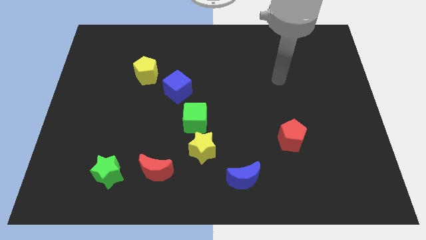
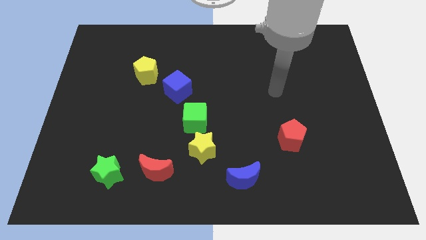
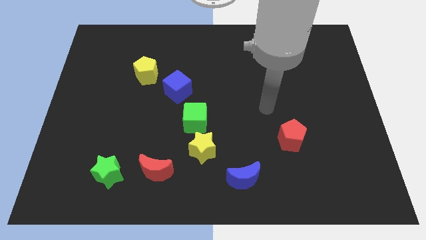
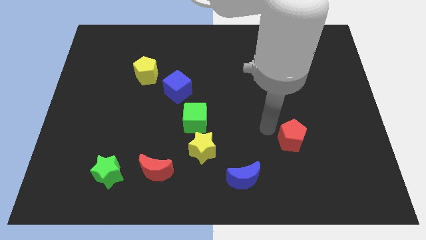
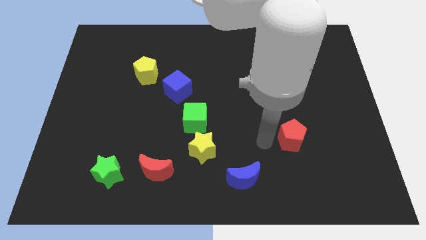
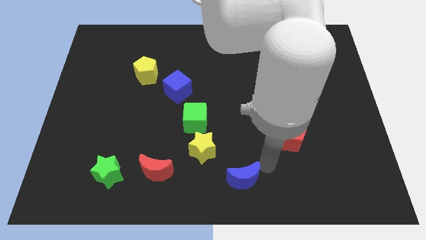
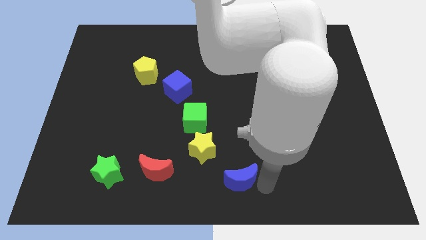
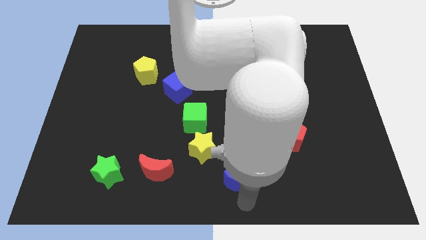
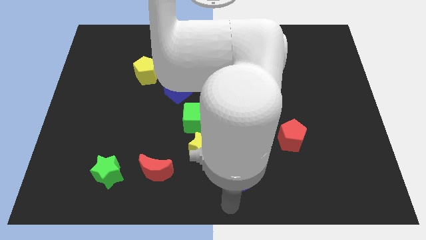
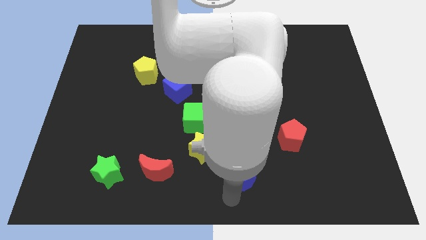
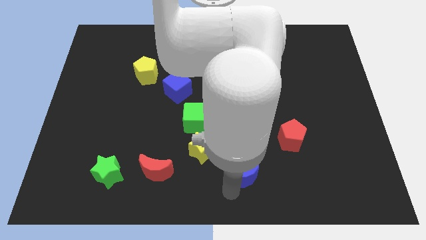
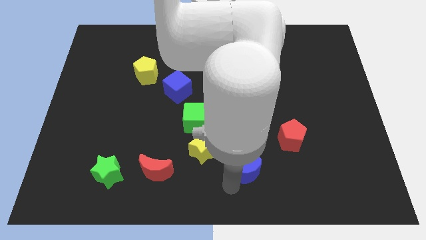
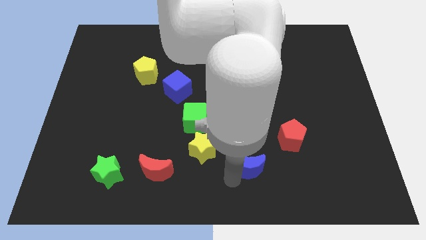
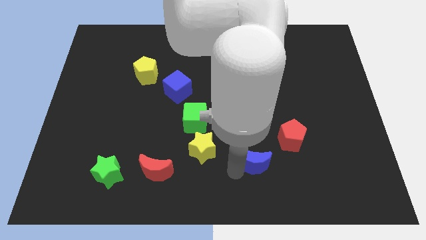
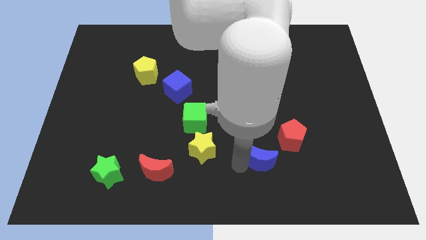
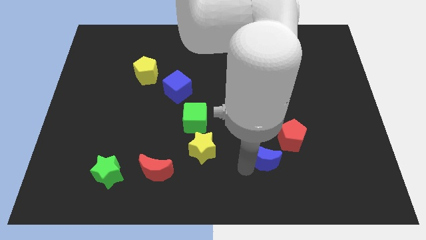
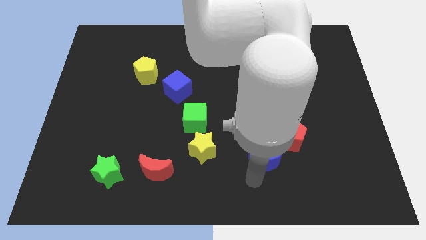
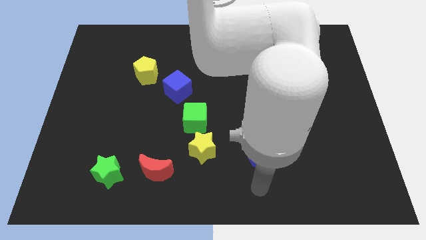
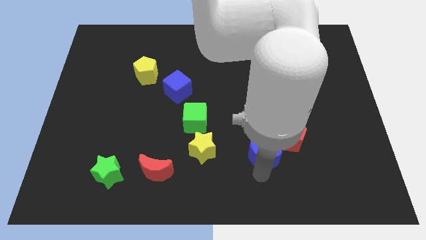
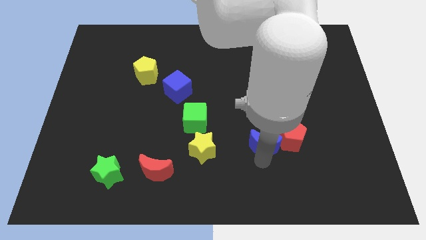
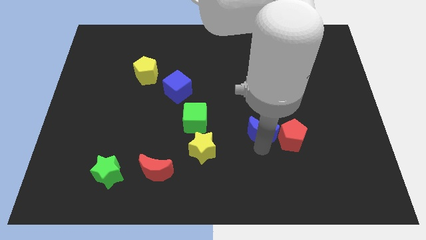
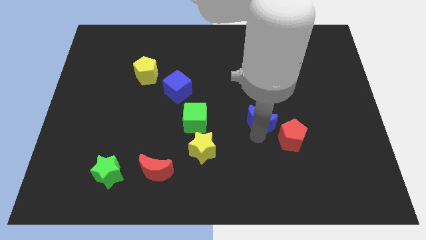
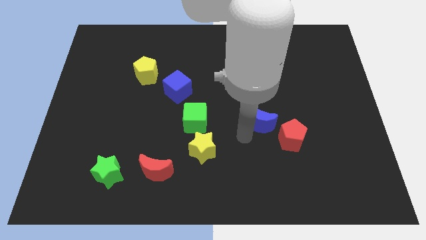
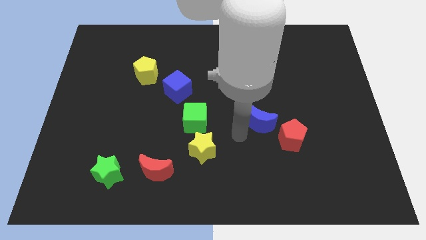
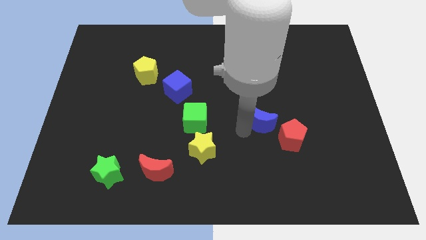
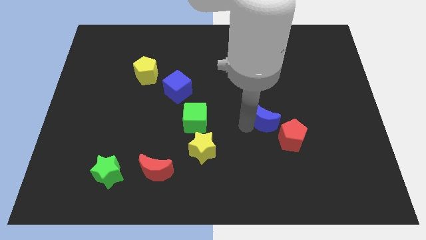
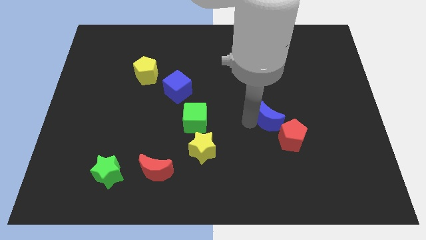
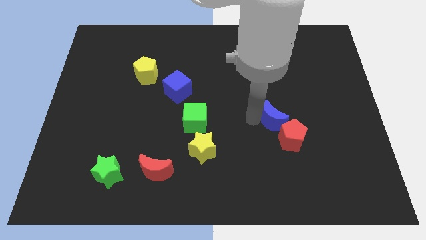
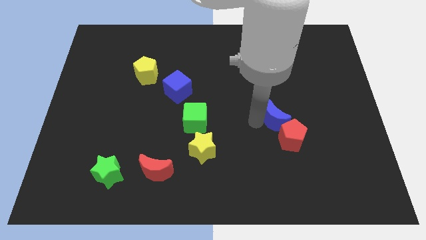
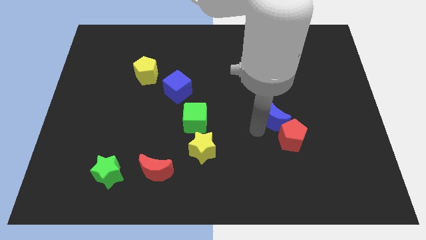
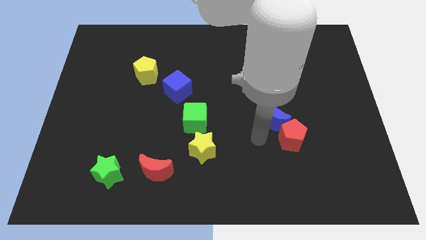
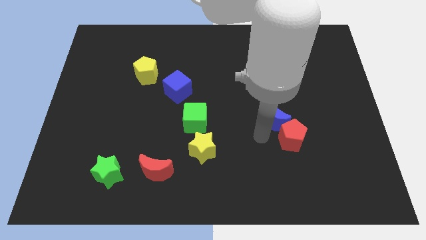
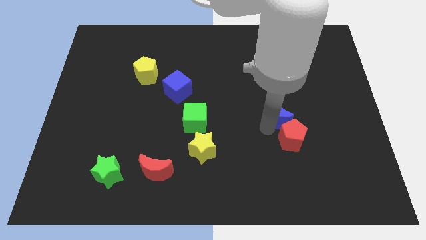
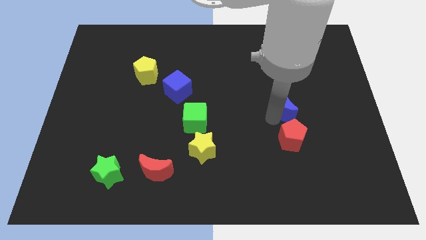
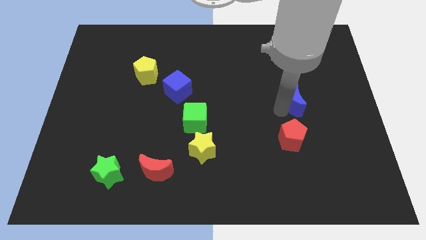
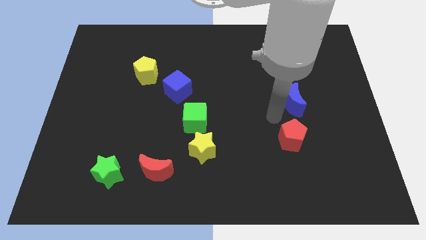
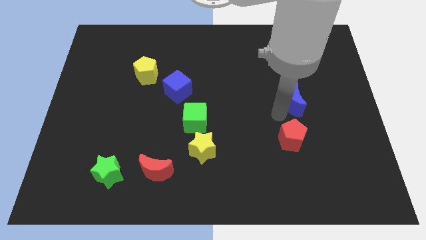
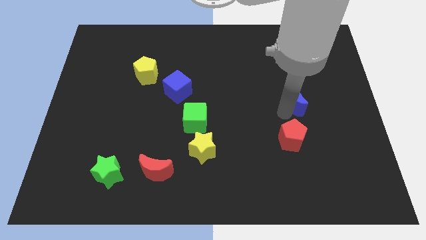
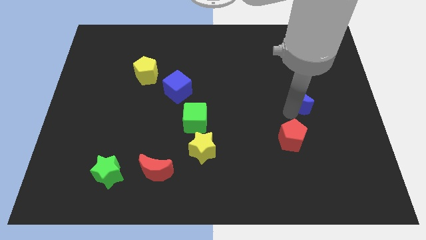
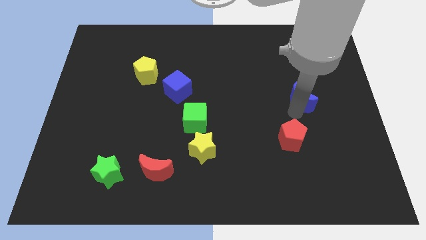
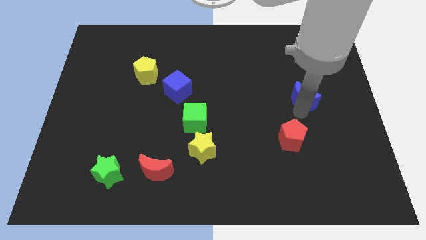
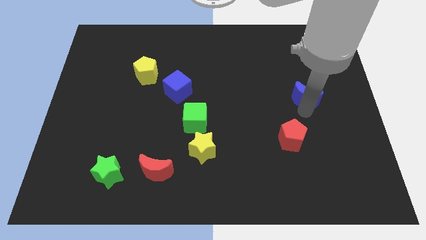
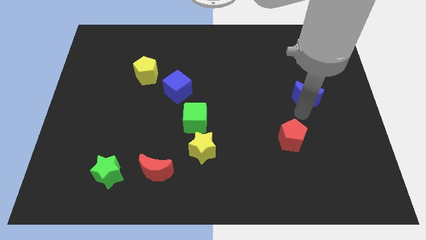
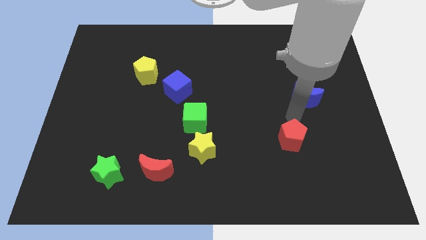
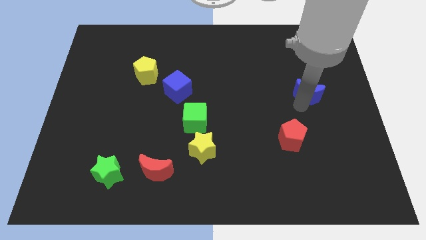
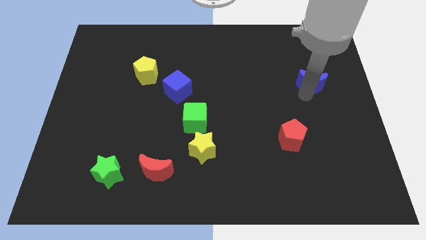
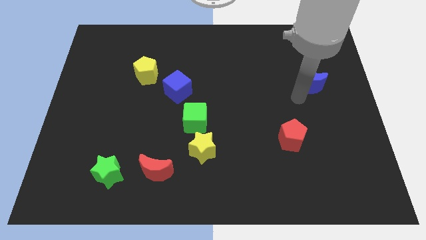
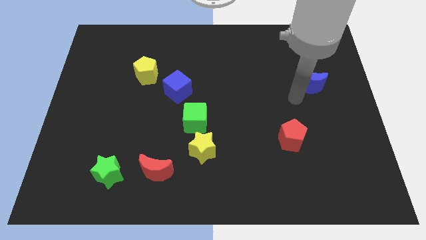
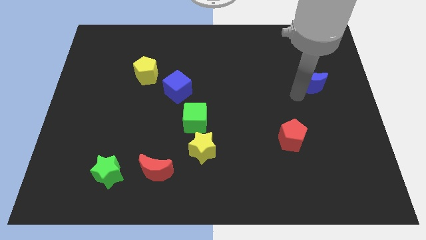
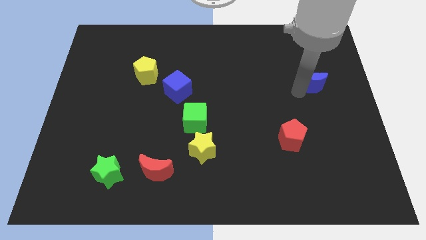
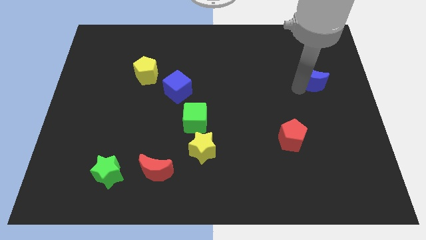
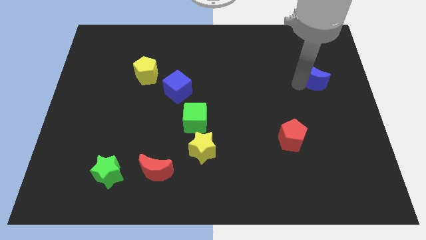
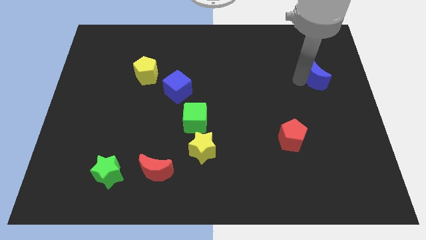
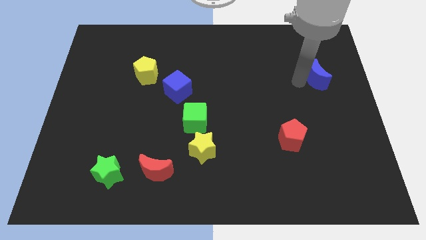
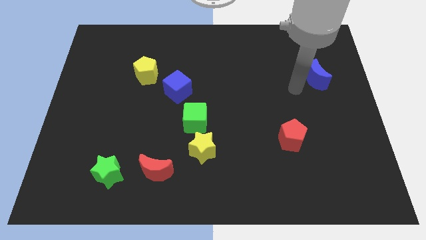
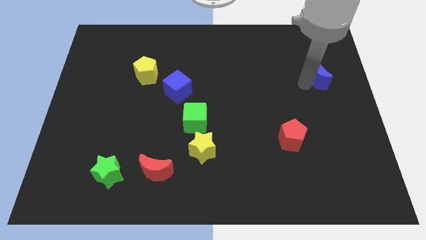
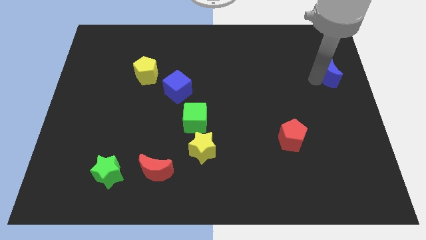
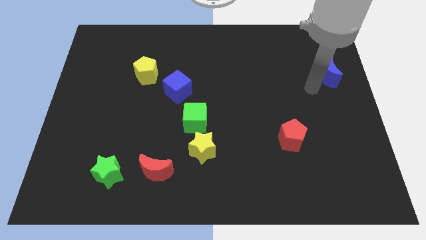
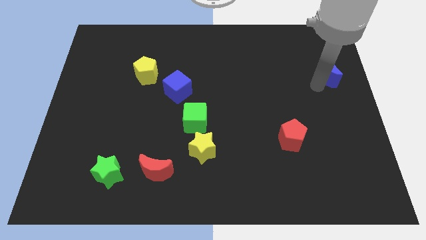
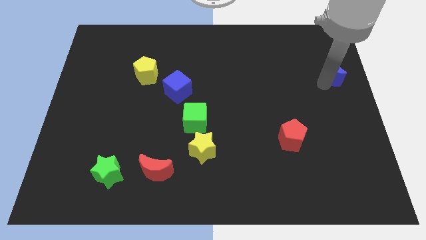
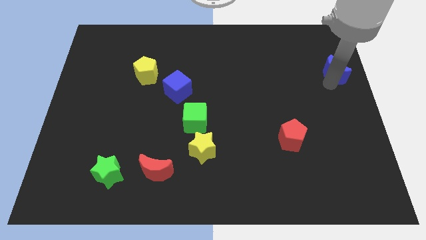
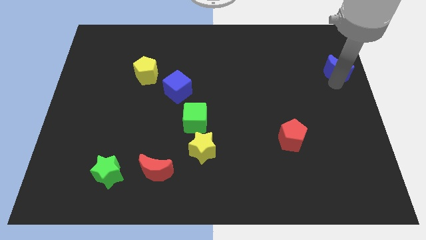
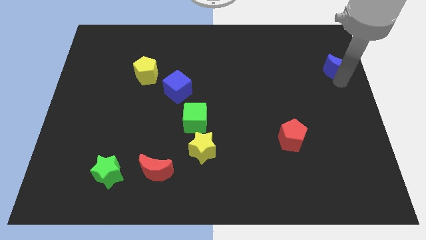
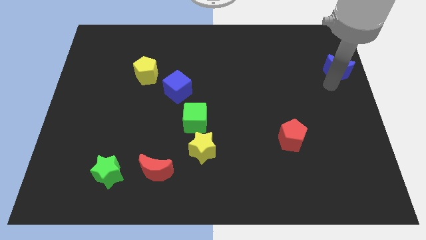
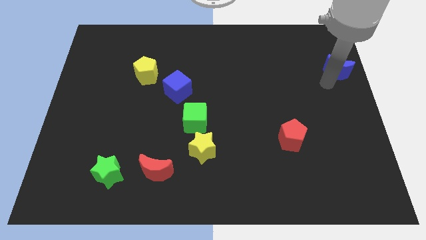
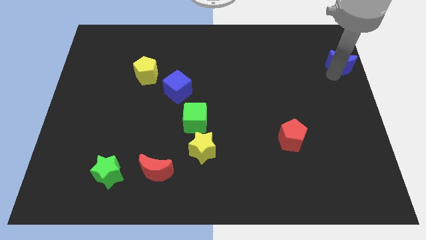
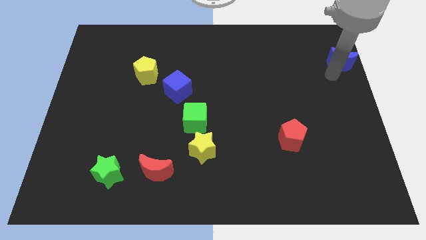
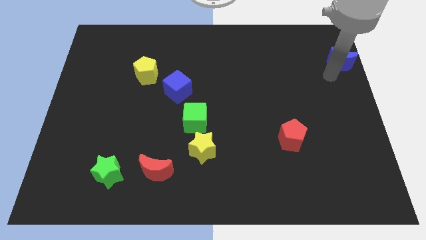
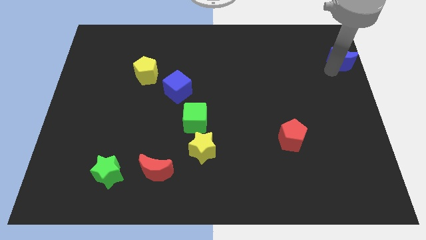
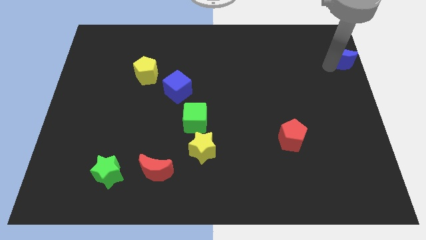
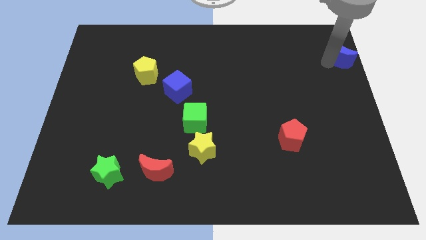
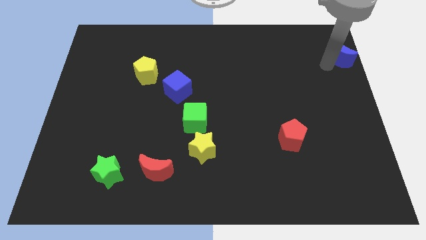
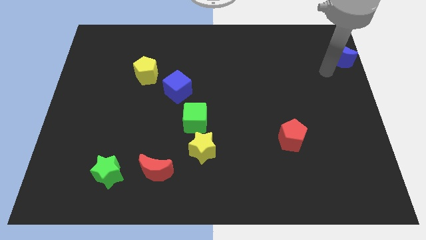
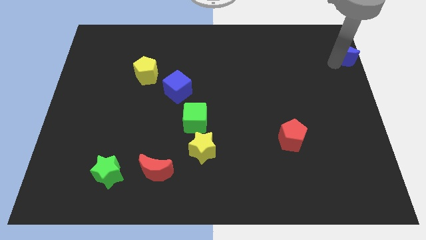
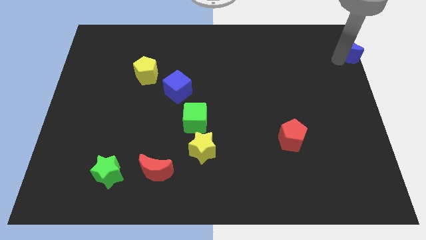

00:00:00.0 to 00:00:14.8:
push the blue moon to the upper right corner

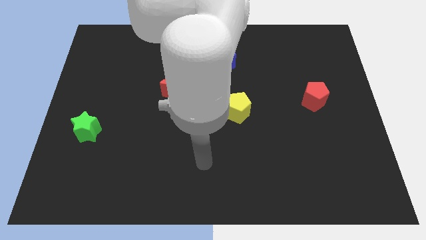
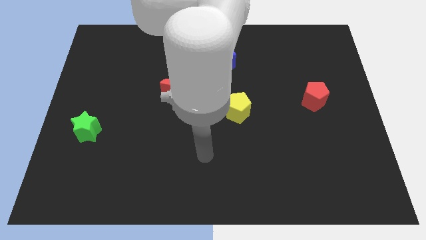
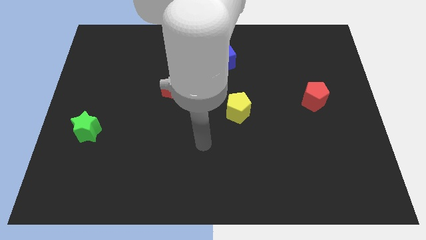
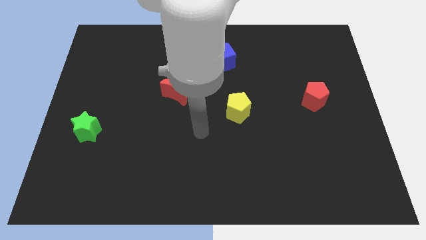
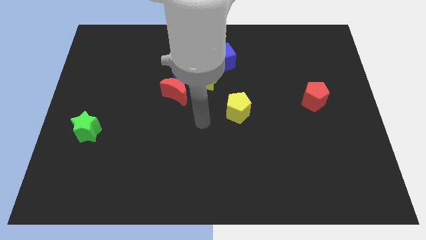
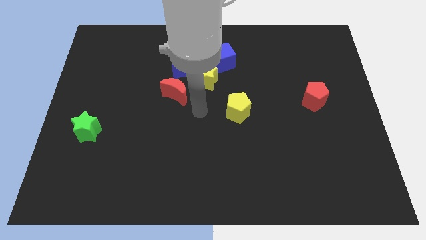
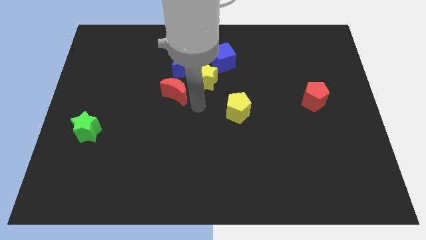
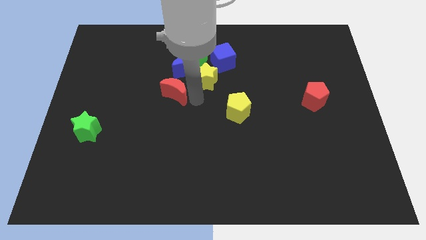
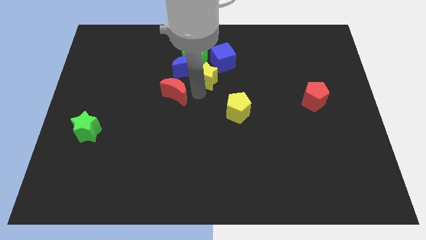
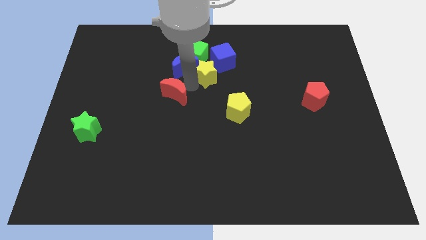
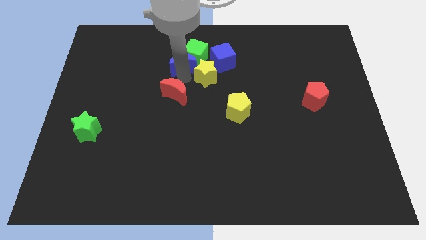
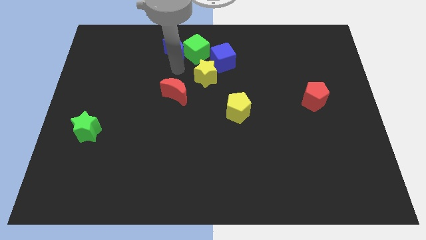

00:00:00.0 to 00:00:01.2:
slide the green cube to the towards your base
